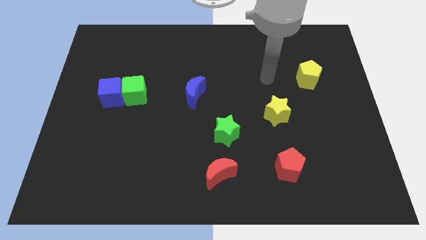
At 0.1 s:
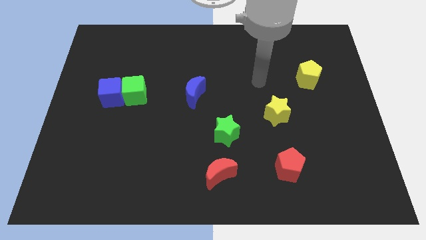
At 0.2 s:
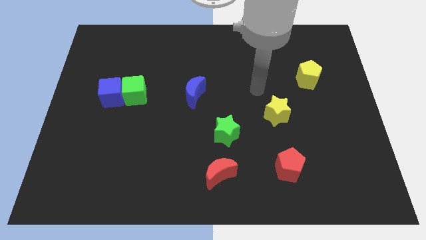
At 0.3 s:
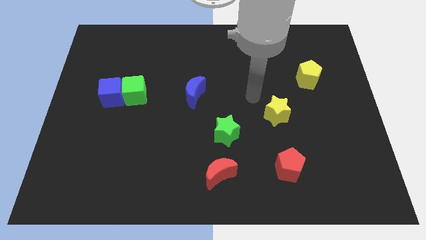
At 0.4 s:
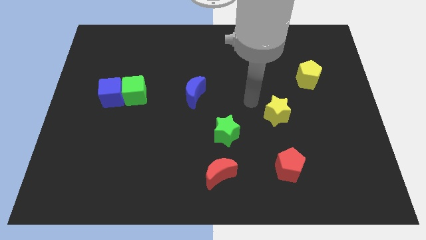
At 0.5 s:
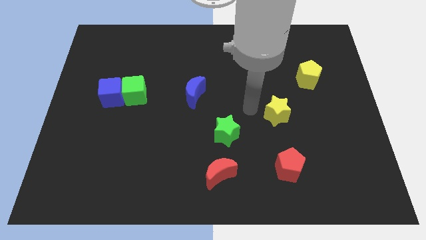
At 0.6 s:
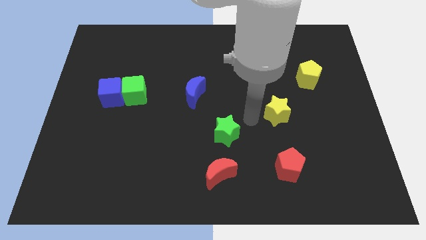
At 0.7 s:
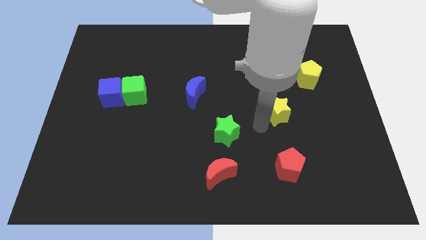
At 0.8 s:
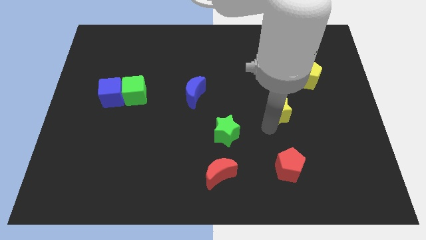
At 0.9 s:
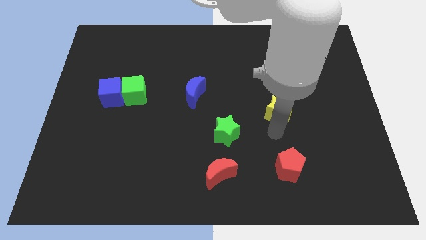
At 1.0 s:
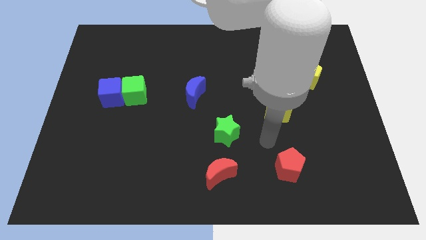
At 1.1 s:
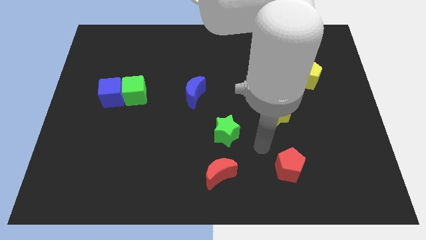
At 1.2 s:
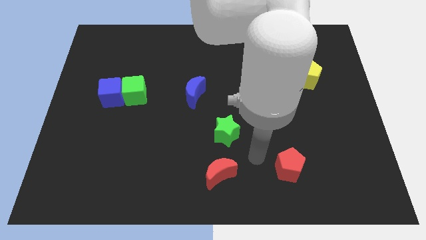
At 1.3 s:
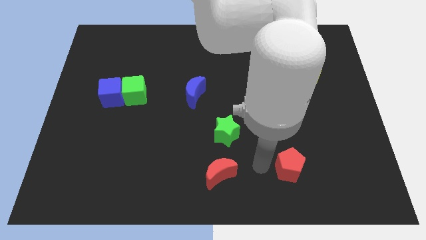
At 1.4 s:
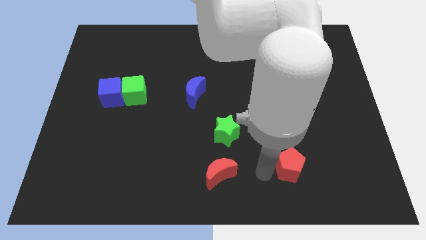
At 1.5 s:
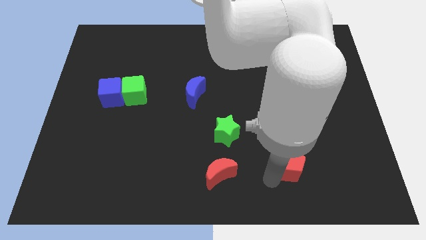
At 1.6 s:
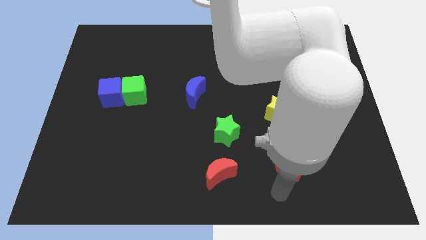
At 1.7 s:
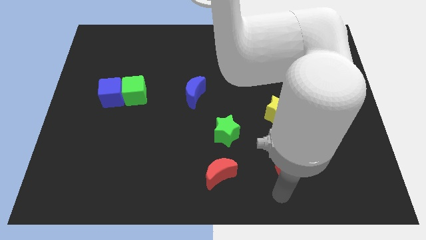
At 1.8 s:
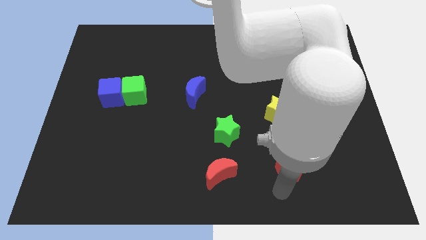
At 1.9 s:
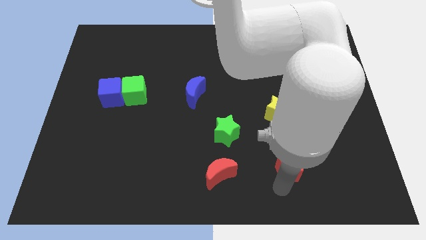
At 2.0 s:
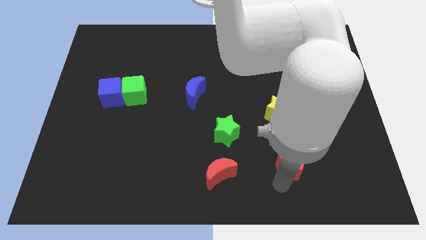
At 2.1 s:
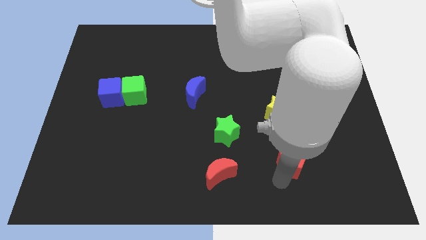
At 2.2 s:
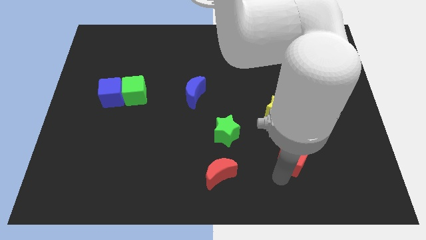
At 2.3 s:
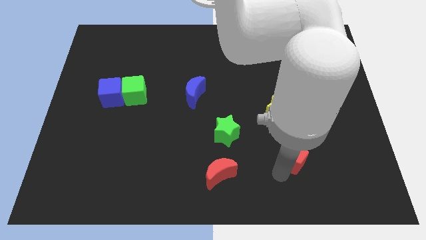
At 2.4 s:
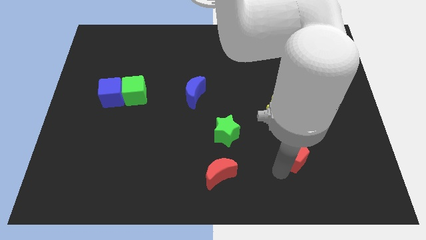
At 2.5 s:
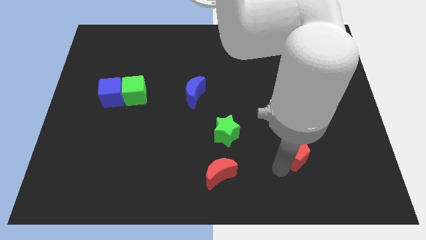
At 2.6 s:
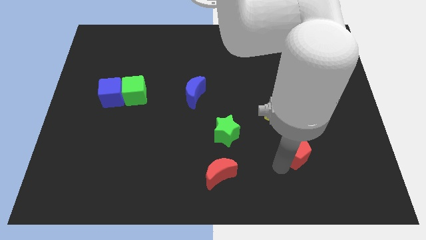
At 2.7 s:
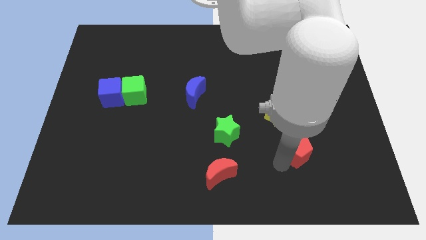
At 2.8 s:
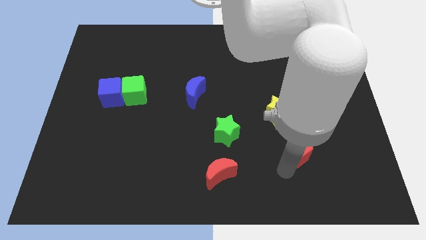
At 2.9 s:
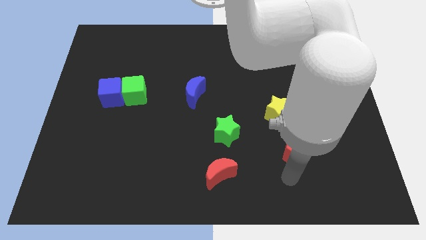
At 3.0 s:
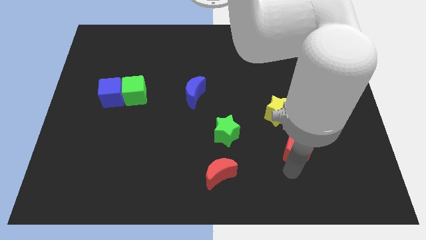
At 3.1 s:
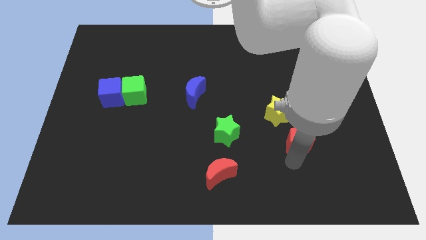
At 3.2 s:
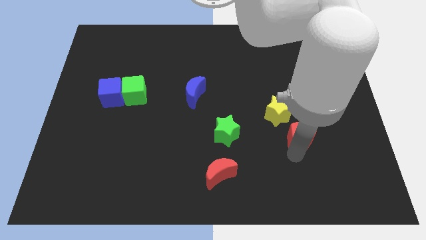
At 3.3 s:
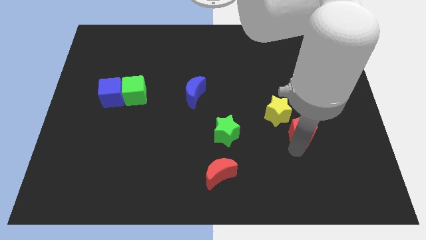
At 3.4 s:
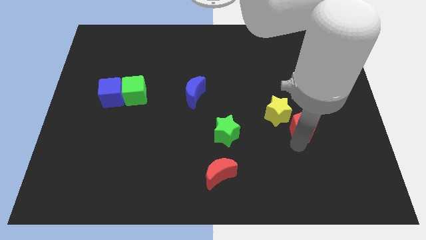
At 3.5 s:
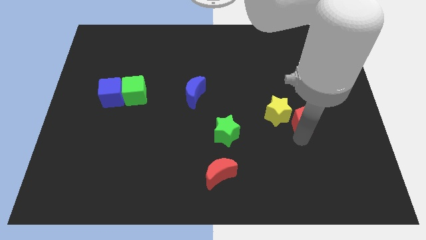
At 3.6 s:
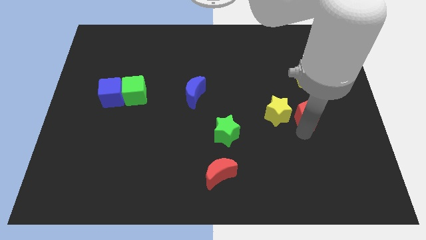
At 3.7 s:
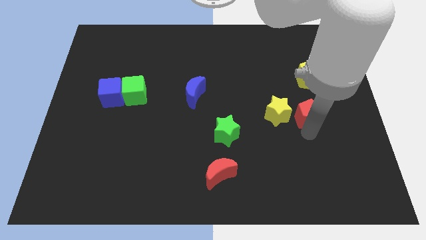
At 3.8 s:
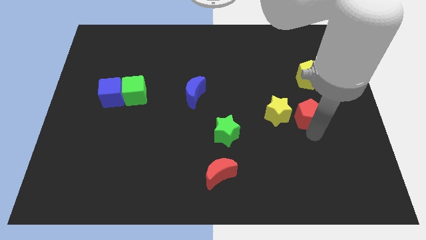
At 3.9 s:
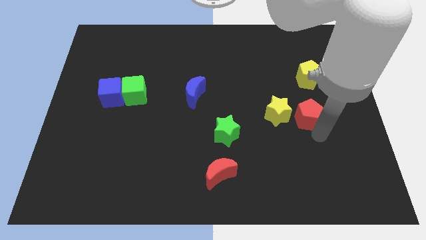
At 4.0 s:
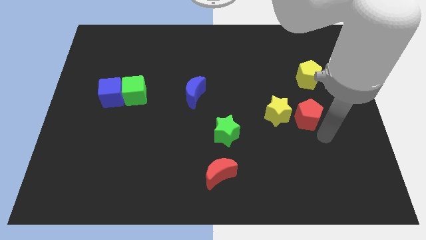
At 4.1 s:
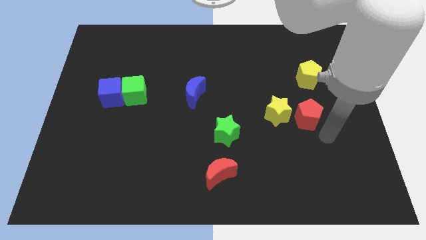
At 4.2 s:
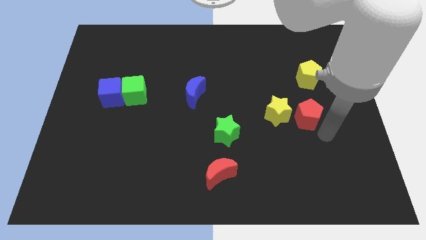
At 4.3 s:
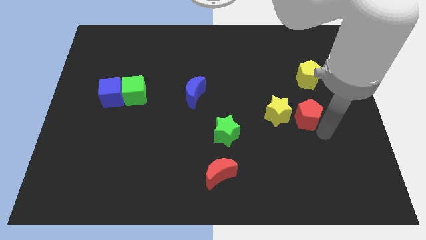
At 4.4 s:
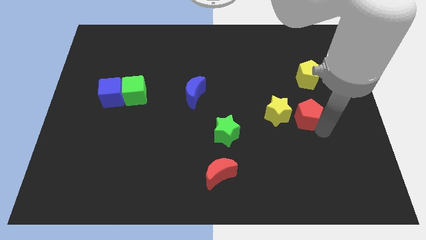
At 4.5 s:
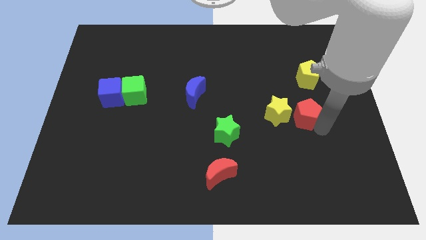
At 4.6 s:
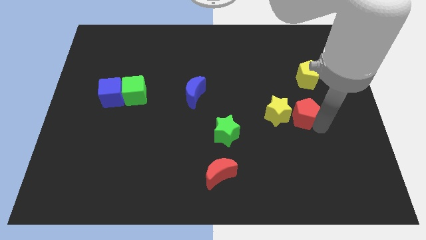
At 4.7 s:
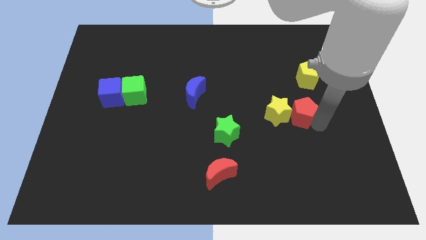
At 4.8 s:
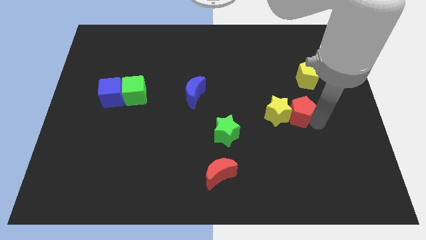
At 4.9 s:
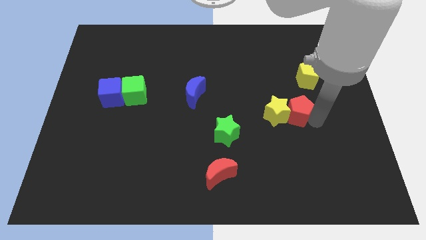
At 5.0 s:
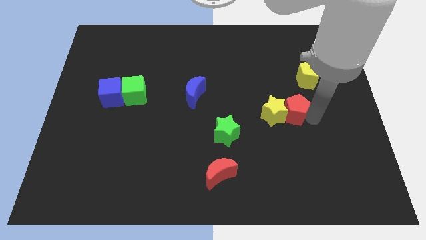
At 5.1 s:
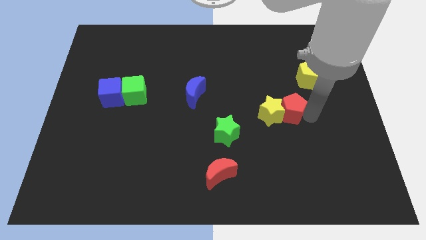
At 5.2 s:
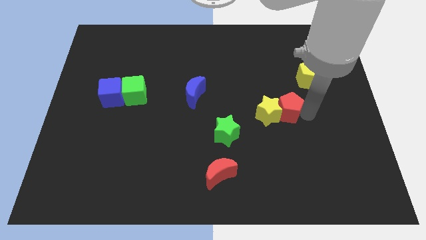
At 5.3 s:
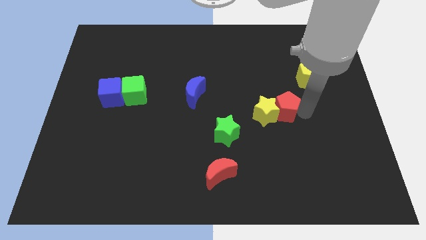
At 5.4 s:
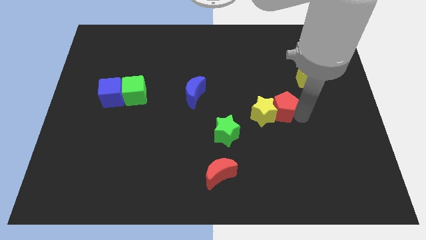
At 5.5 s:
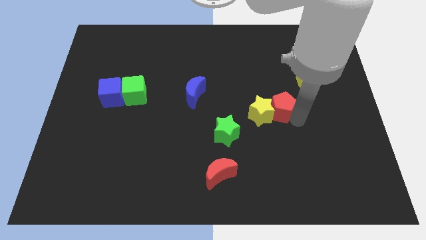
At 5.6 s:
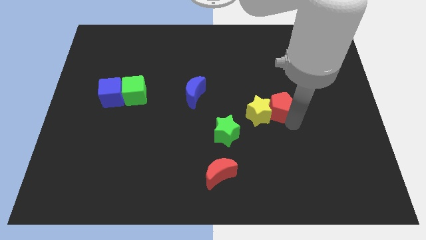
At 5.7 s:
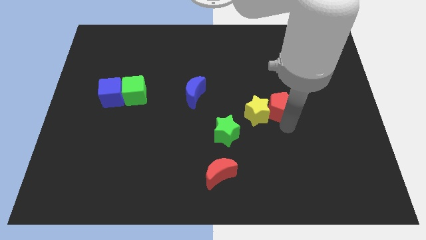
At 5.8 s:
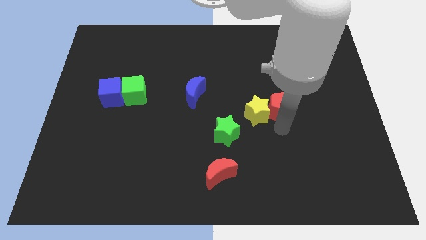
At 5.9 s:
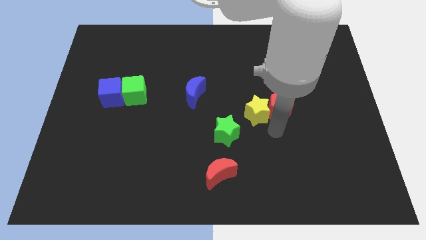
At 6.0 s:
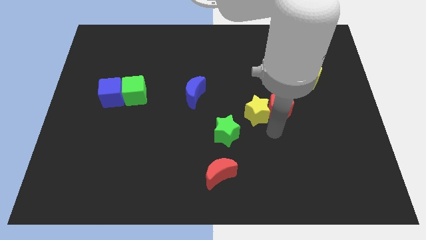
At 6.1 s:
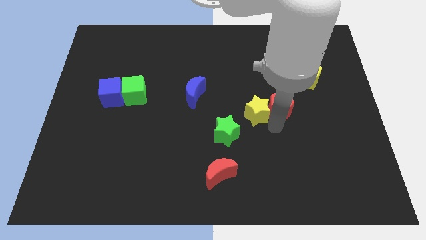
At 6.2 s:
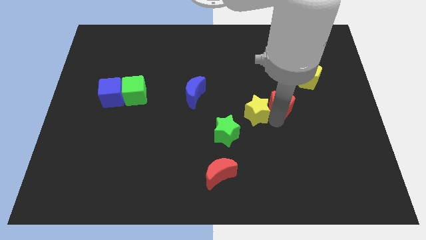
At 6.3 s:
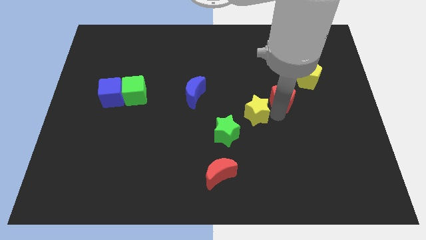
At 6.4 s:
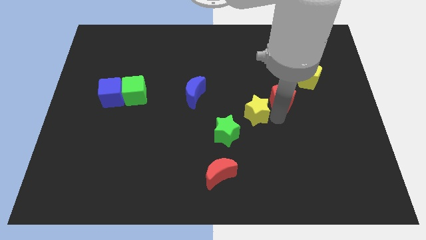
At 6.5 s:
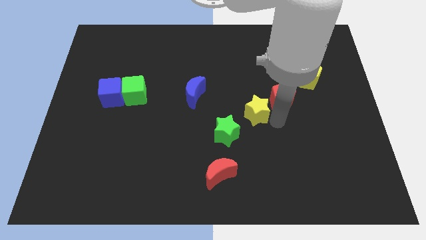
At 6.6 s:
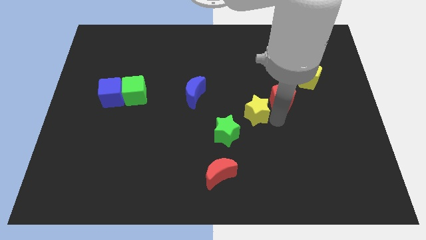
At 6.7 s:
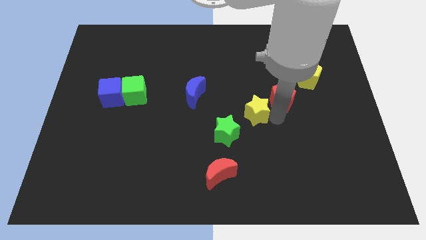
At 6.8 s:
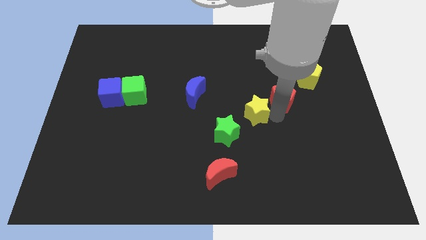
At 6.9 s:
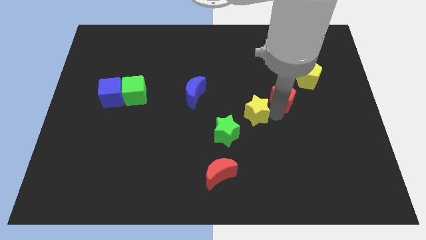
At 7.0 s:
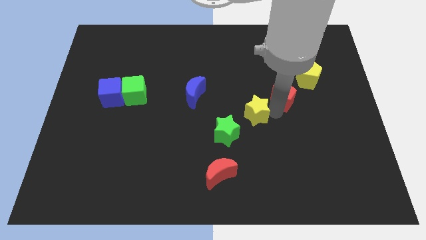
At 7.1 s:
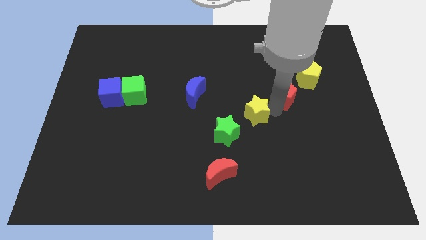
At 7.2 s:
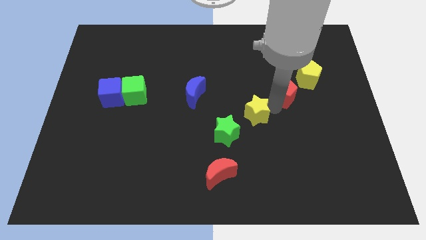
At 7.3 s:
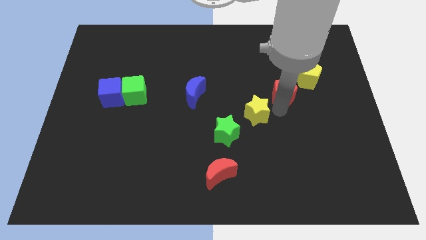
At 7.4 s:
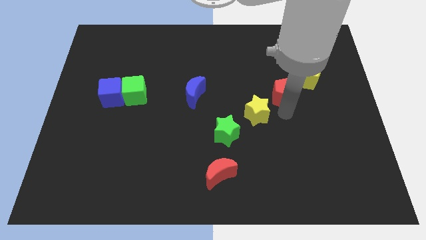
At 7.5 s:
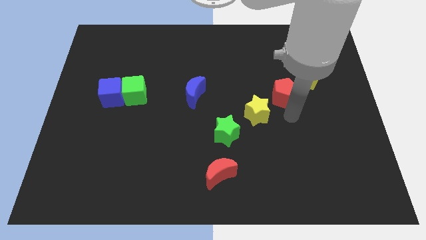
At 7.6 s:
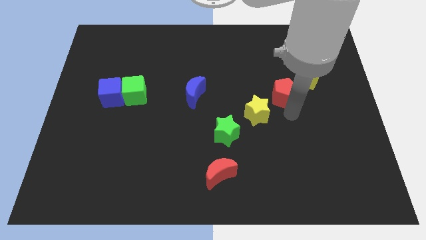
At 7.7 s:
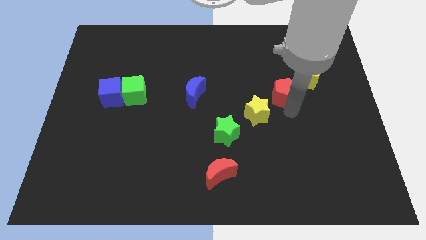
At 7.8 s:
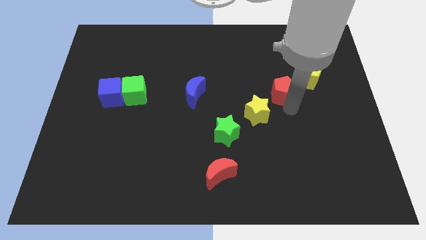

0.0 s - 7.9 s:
push the red pentagon upwards

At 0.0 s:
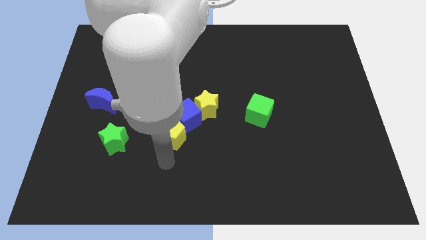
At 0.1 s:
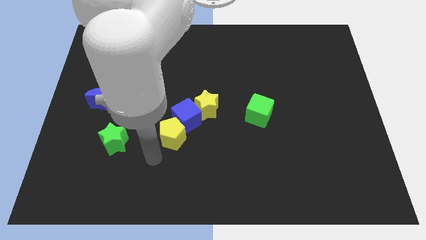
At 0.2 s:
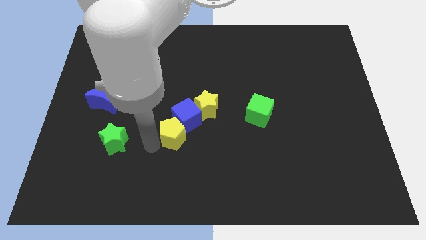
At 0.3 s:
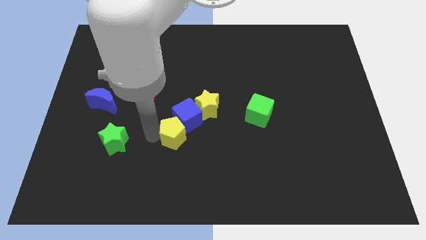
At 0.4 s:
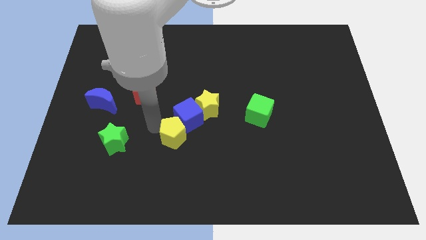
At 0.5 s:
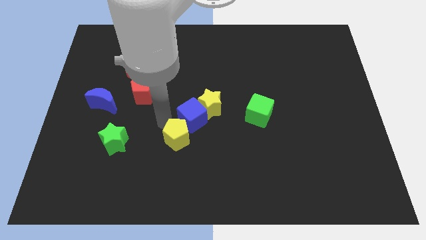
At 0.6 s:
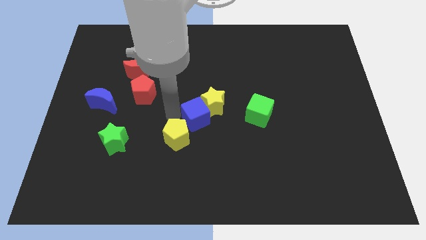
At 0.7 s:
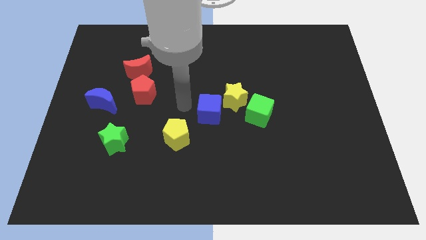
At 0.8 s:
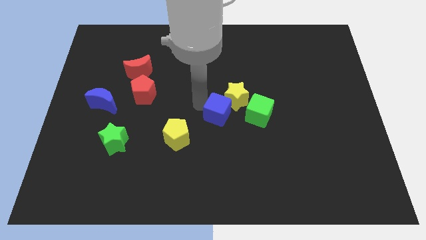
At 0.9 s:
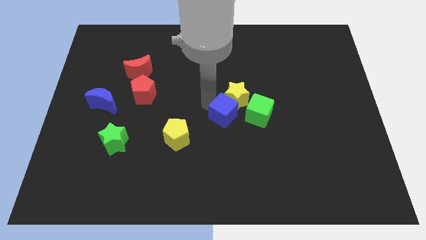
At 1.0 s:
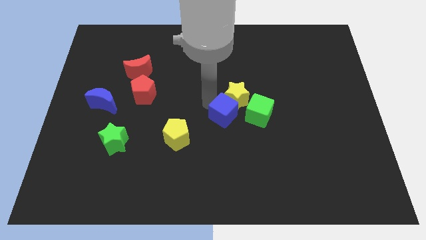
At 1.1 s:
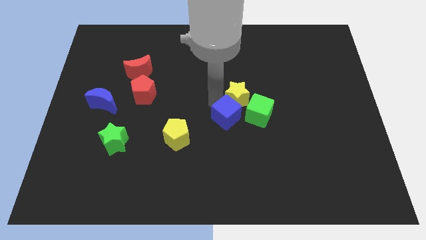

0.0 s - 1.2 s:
slightly move the yellow star to the right
